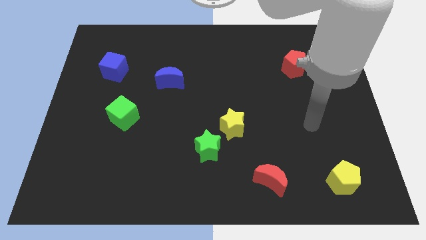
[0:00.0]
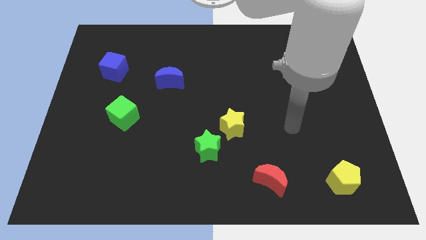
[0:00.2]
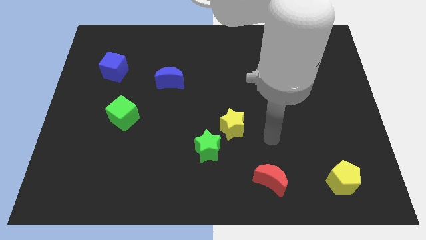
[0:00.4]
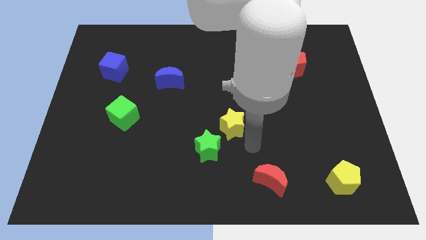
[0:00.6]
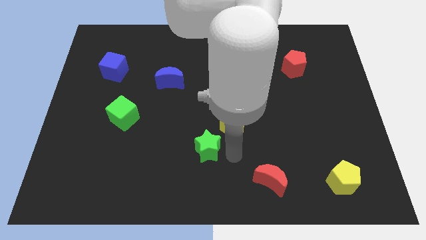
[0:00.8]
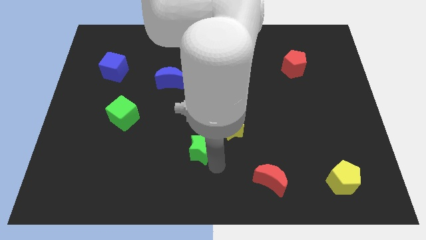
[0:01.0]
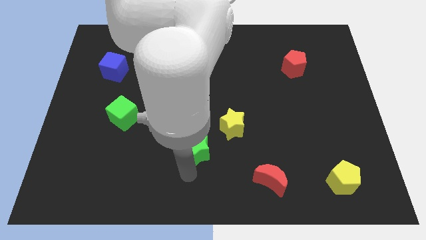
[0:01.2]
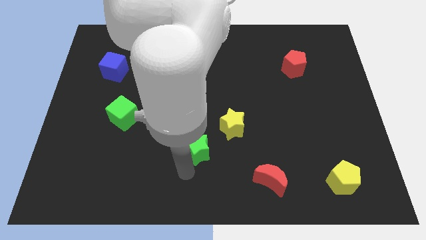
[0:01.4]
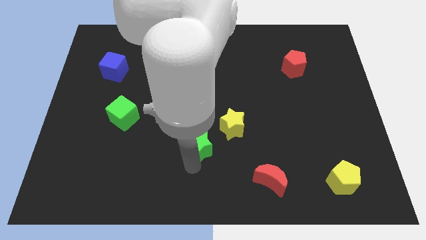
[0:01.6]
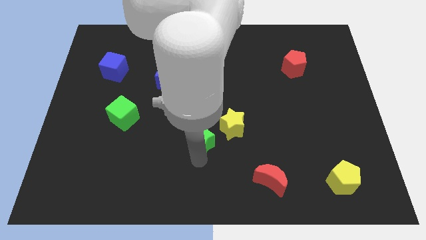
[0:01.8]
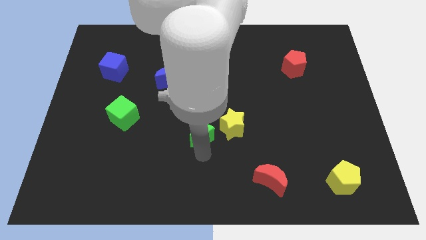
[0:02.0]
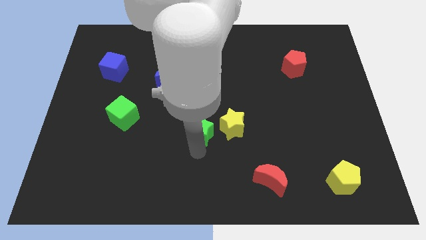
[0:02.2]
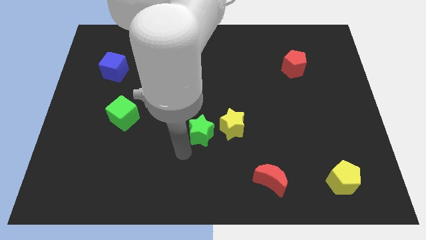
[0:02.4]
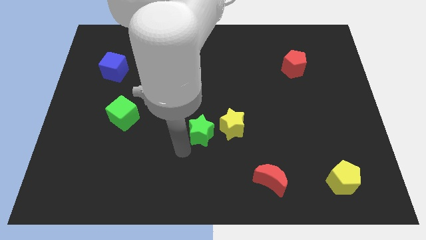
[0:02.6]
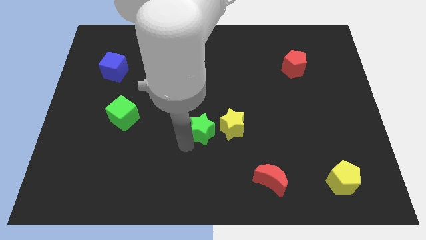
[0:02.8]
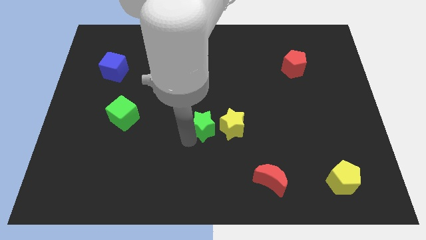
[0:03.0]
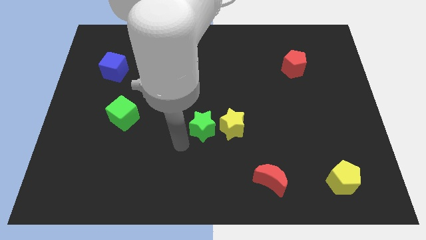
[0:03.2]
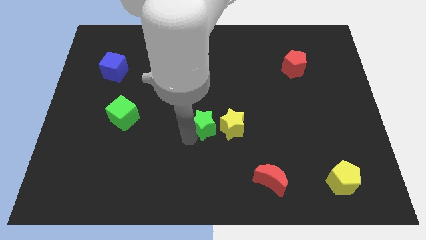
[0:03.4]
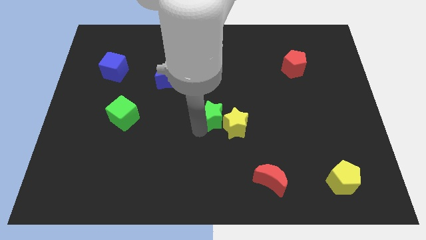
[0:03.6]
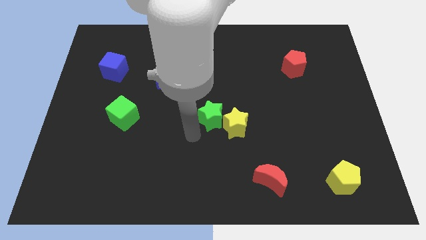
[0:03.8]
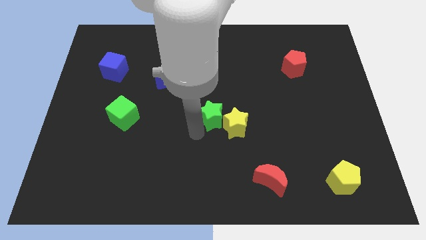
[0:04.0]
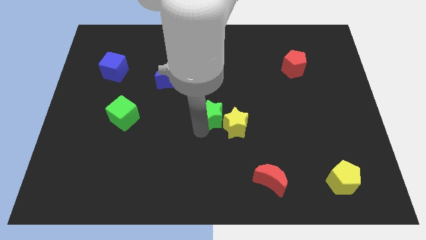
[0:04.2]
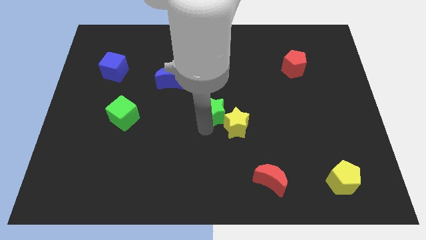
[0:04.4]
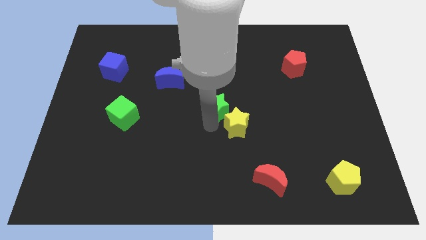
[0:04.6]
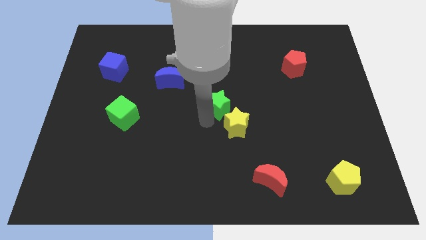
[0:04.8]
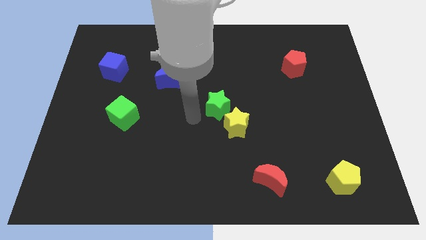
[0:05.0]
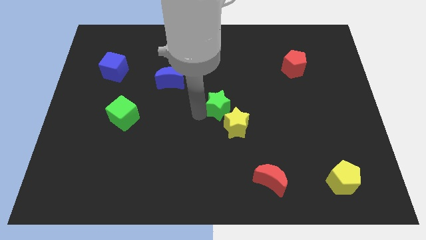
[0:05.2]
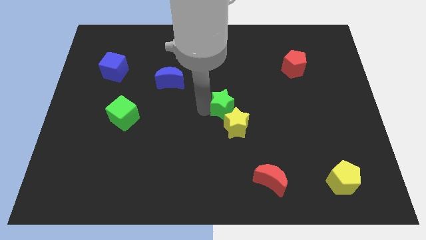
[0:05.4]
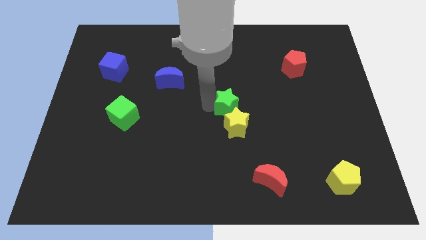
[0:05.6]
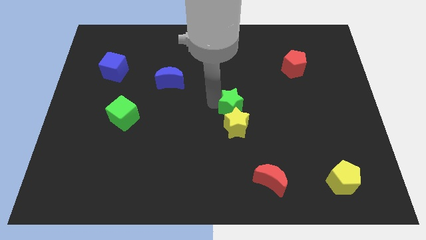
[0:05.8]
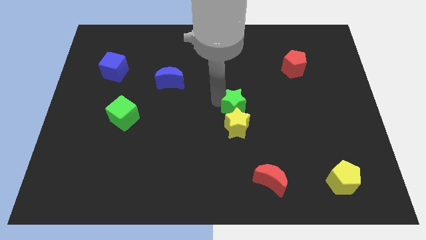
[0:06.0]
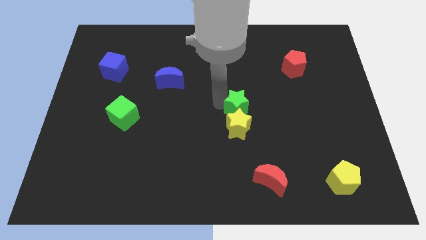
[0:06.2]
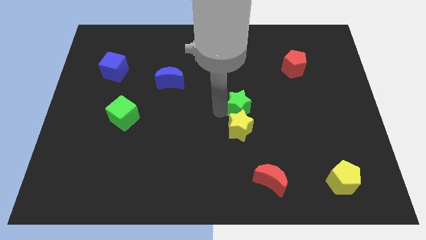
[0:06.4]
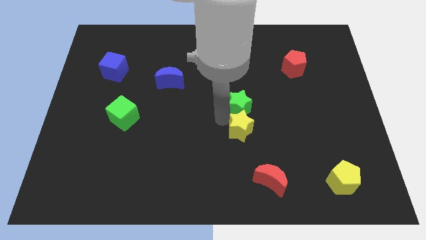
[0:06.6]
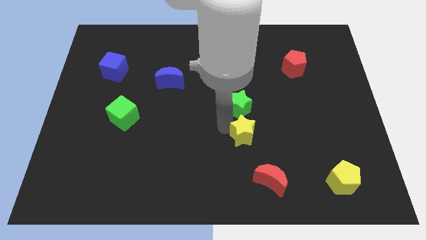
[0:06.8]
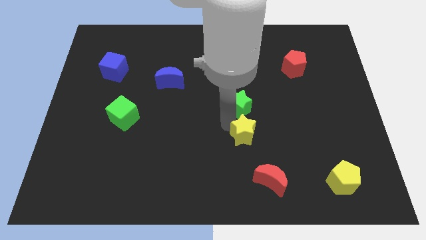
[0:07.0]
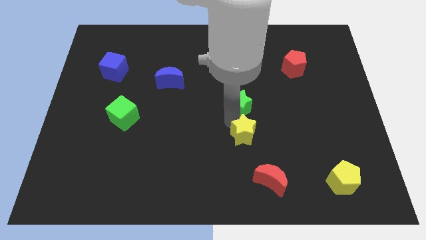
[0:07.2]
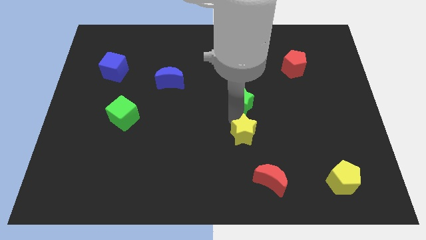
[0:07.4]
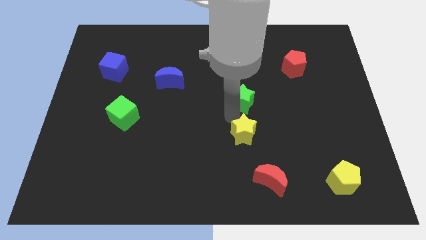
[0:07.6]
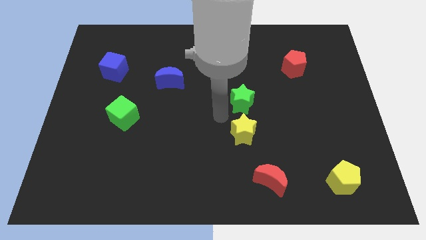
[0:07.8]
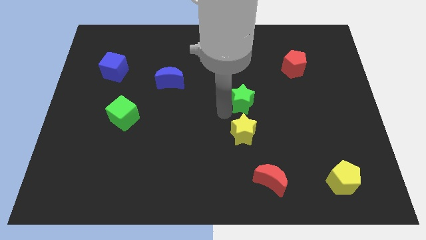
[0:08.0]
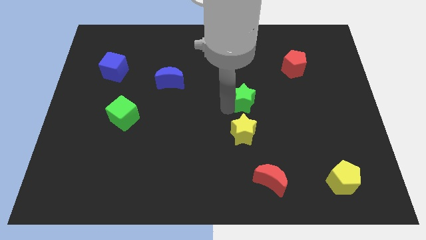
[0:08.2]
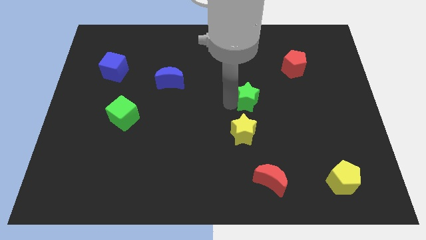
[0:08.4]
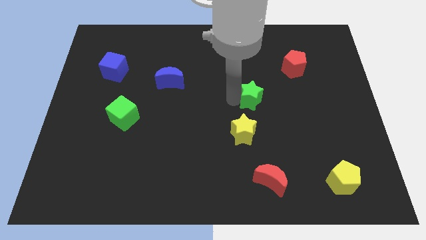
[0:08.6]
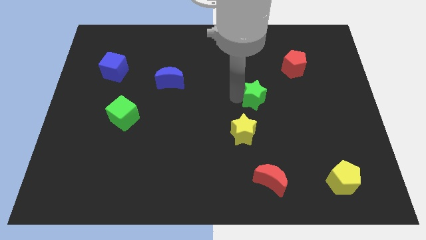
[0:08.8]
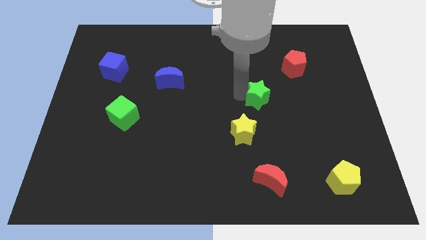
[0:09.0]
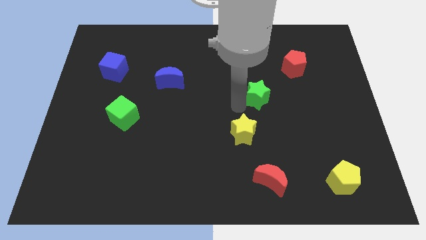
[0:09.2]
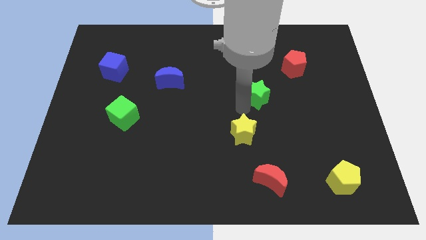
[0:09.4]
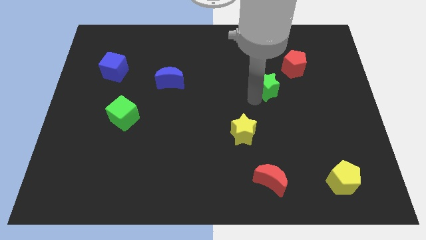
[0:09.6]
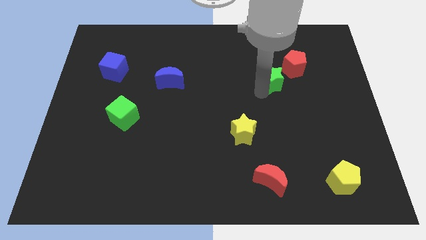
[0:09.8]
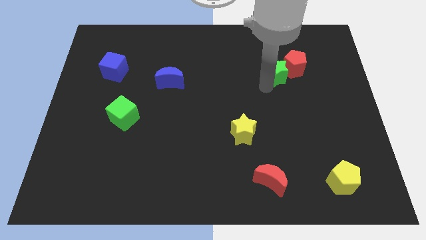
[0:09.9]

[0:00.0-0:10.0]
put the green star to the red pentagon

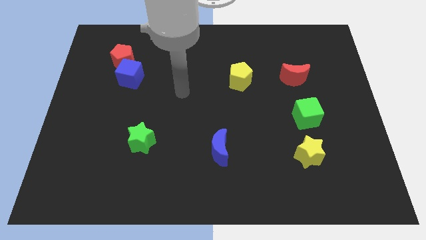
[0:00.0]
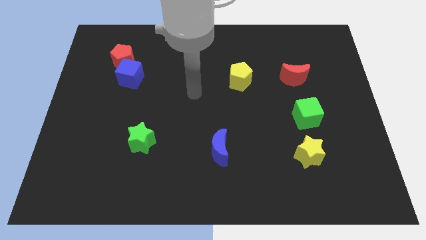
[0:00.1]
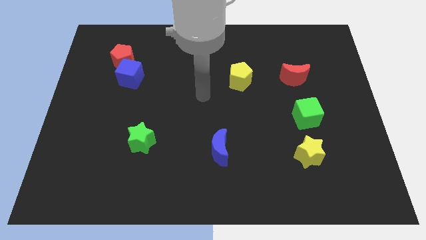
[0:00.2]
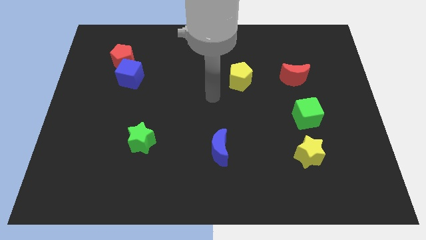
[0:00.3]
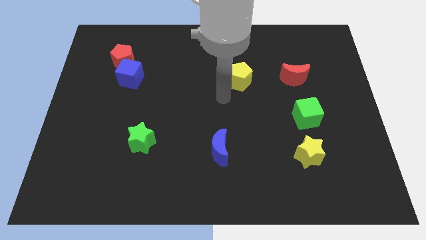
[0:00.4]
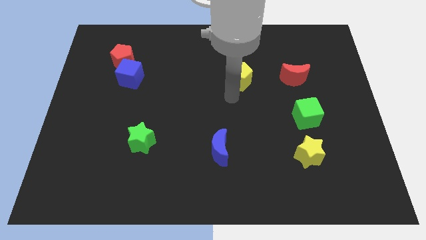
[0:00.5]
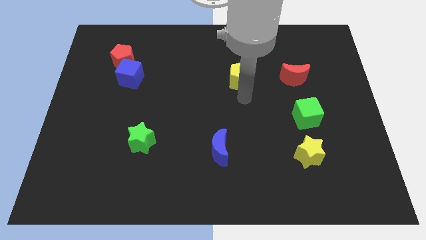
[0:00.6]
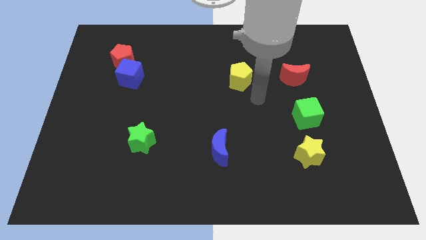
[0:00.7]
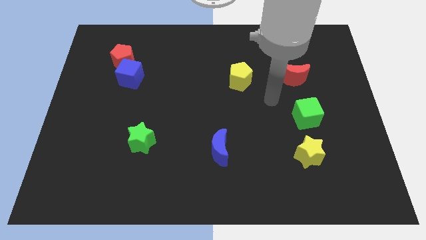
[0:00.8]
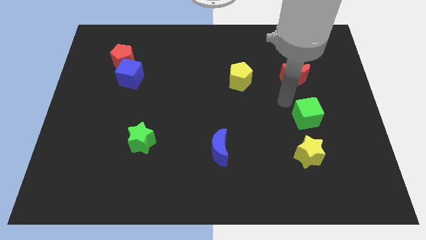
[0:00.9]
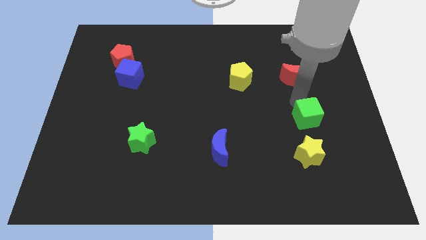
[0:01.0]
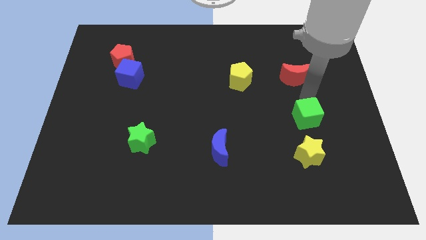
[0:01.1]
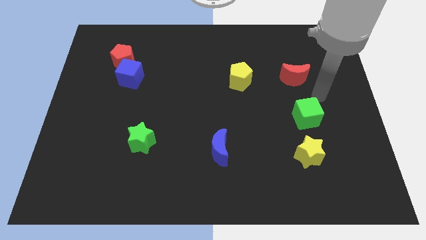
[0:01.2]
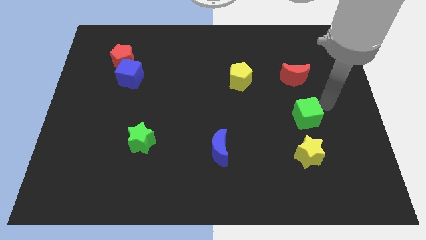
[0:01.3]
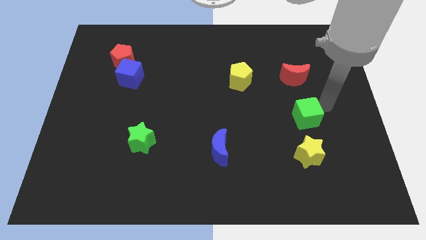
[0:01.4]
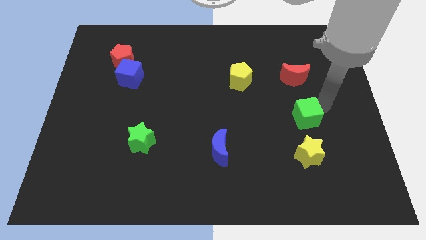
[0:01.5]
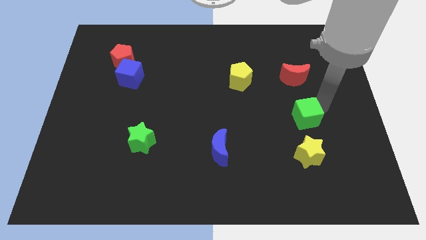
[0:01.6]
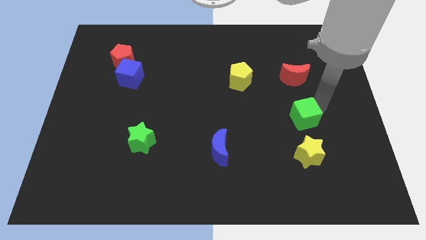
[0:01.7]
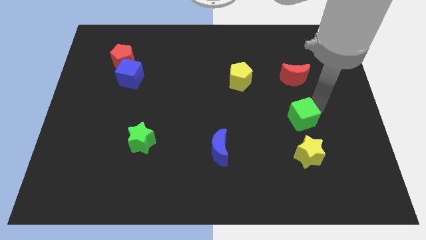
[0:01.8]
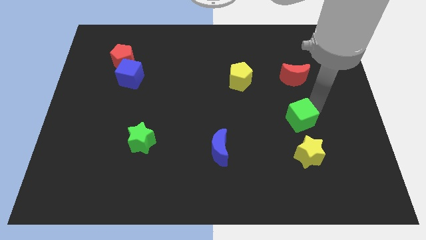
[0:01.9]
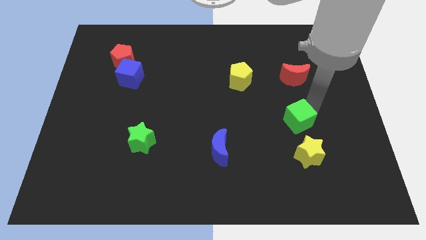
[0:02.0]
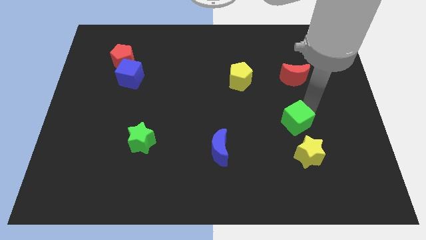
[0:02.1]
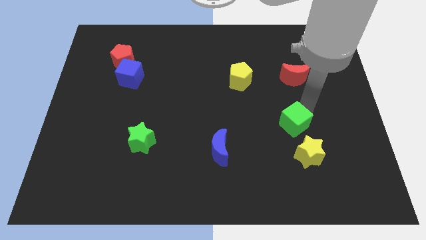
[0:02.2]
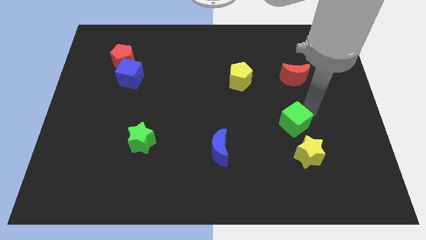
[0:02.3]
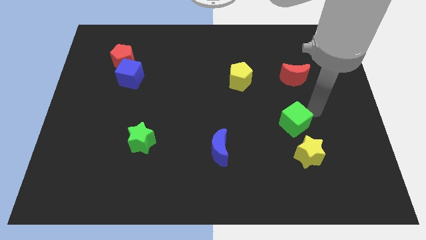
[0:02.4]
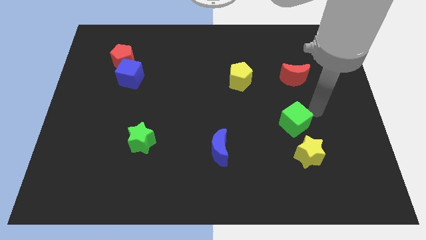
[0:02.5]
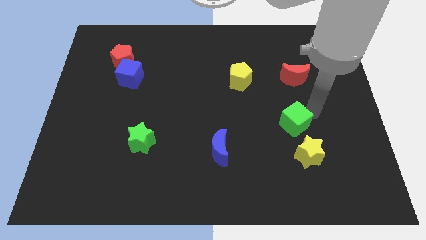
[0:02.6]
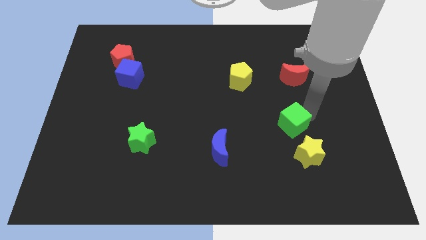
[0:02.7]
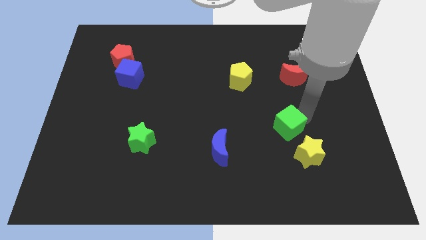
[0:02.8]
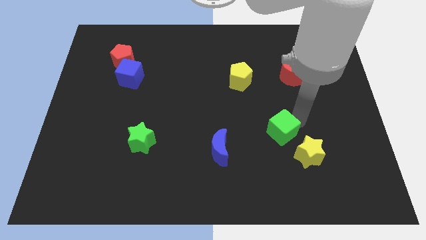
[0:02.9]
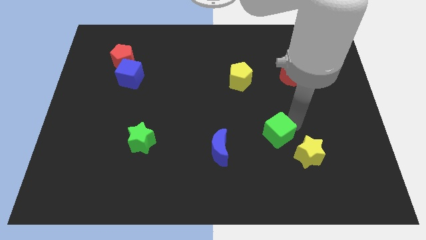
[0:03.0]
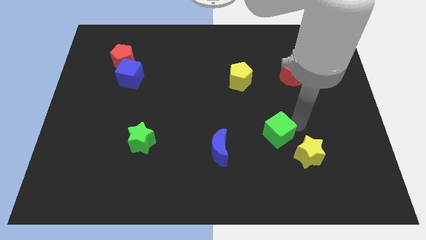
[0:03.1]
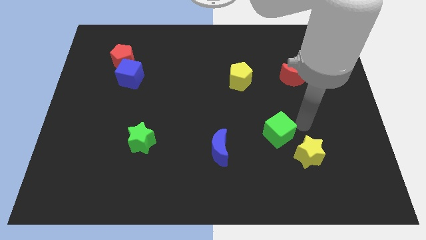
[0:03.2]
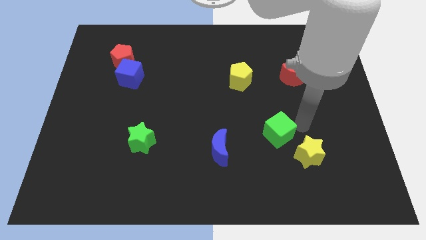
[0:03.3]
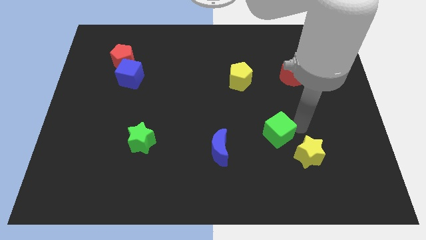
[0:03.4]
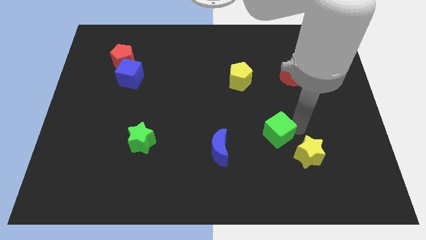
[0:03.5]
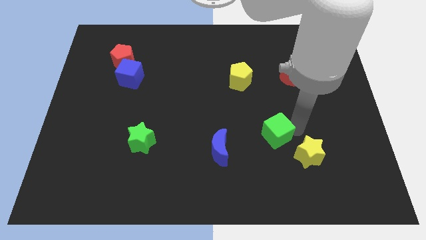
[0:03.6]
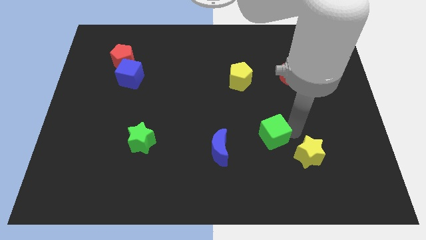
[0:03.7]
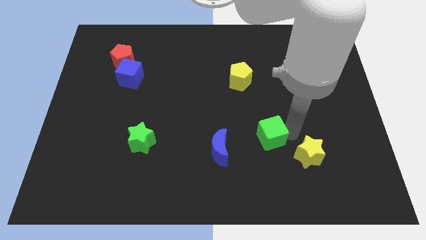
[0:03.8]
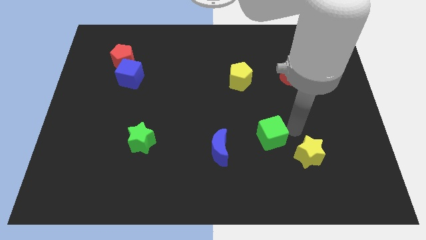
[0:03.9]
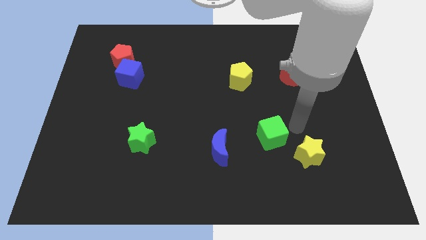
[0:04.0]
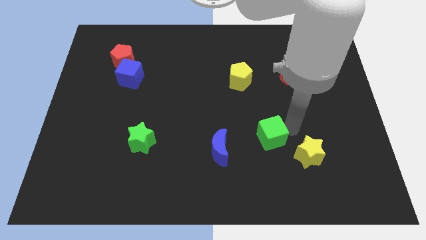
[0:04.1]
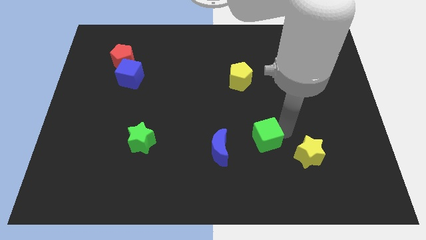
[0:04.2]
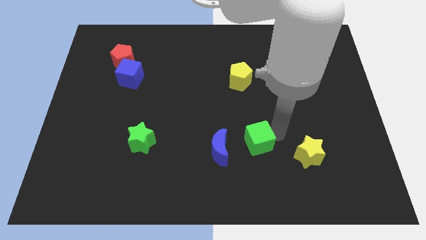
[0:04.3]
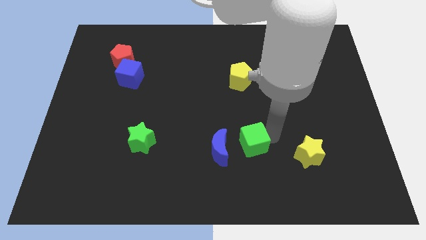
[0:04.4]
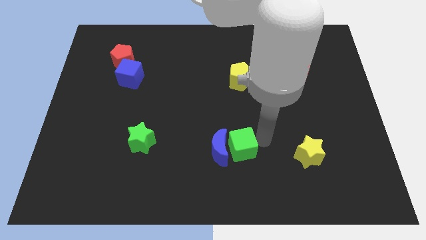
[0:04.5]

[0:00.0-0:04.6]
put the green cube to the blue moon
